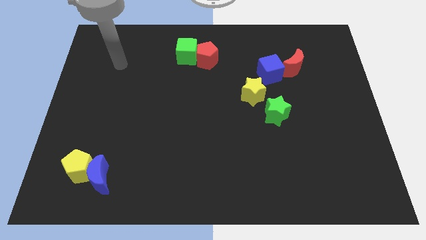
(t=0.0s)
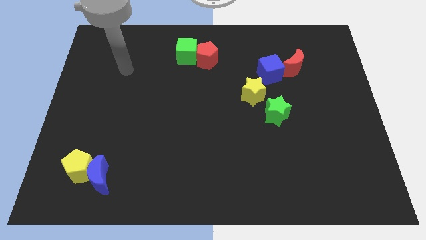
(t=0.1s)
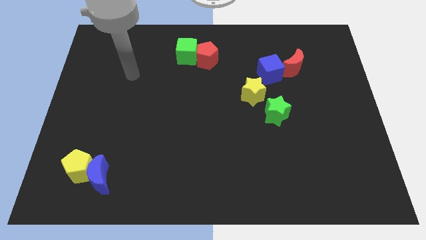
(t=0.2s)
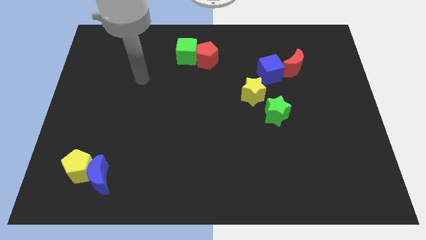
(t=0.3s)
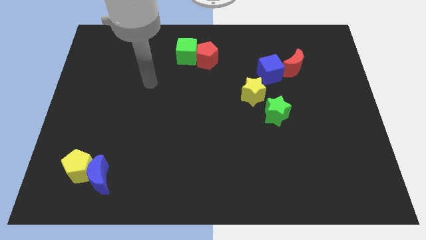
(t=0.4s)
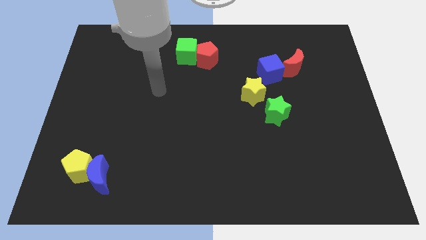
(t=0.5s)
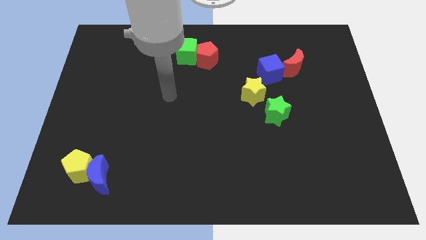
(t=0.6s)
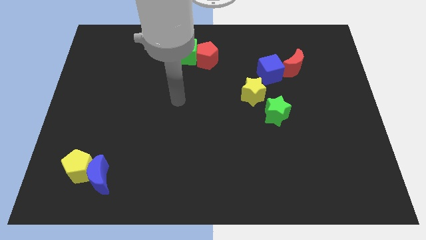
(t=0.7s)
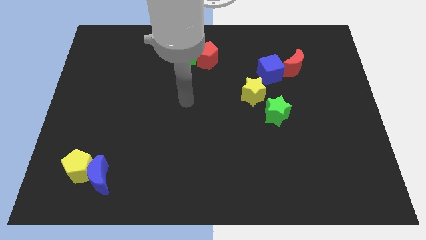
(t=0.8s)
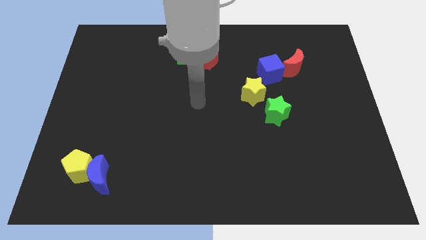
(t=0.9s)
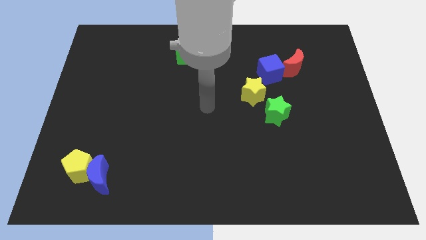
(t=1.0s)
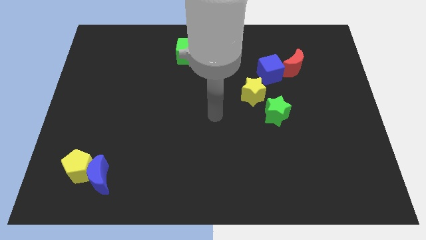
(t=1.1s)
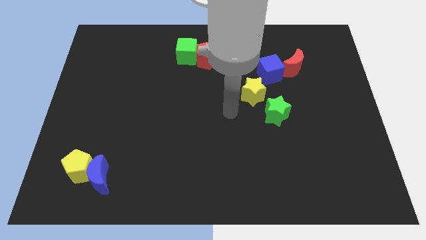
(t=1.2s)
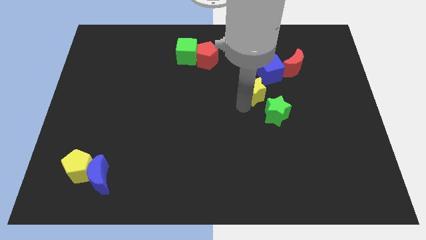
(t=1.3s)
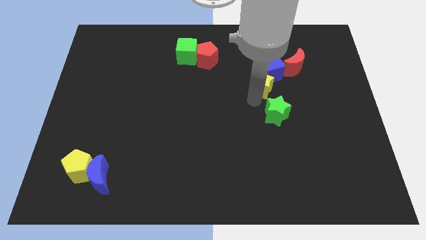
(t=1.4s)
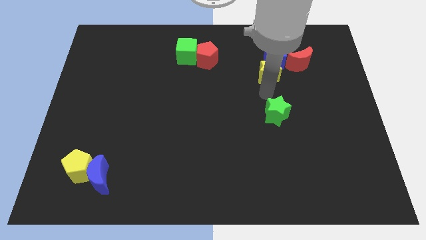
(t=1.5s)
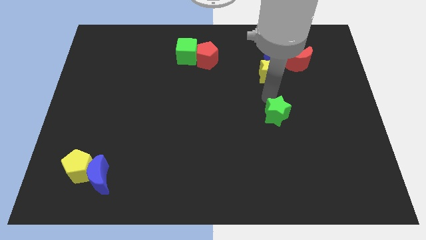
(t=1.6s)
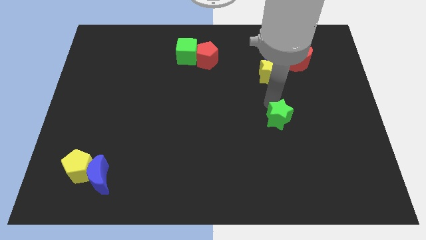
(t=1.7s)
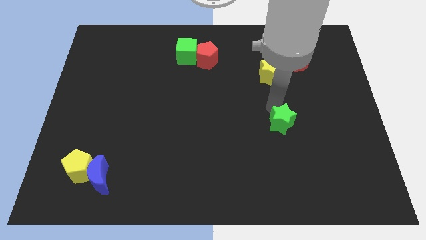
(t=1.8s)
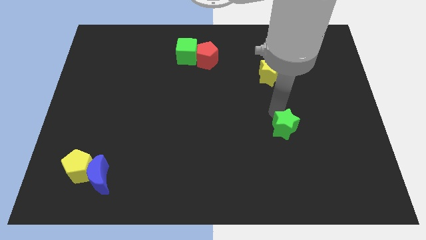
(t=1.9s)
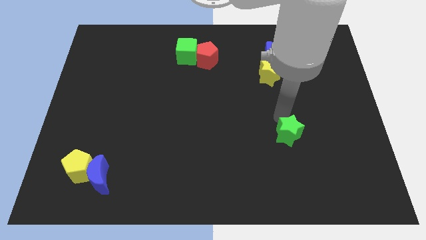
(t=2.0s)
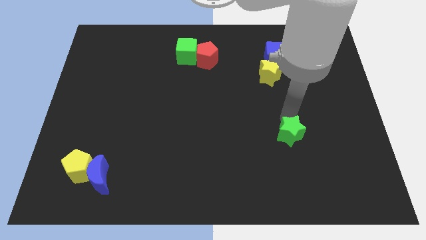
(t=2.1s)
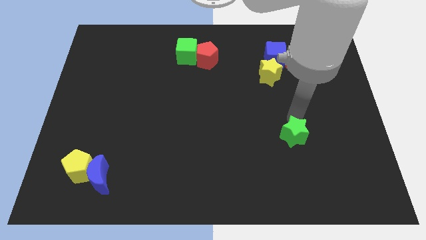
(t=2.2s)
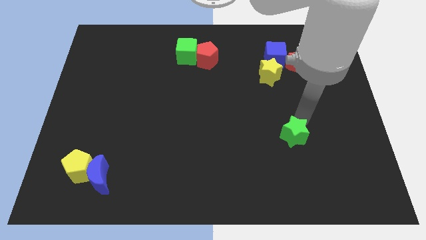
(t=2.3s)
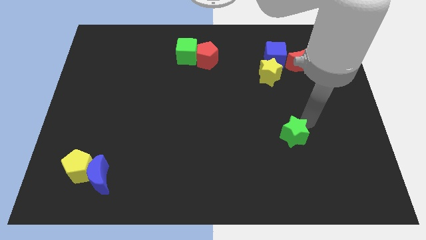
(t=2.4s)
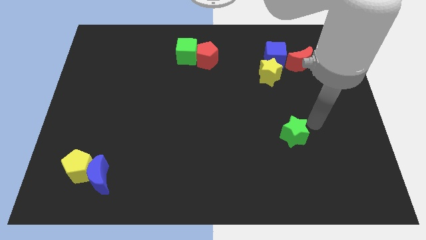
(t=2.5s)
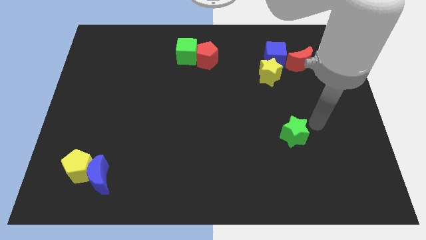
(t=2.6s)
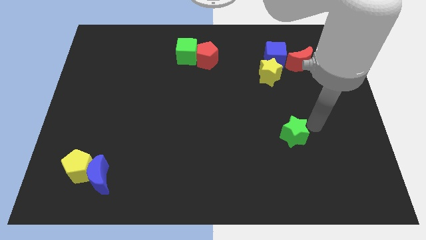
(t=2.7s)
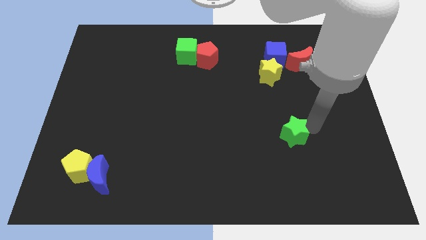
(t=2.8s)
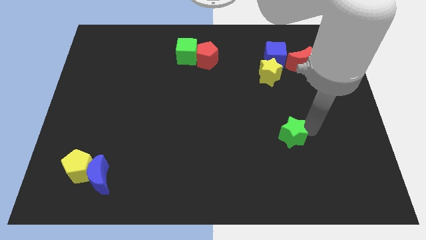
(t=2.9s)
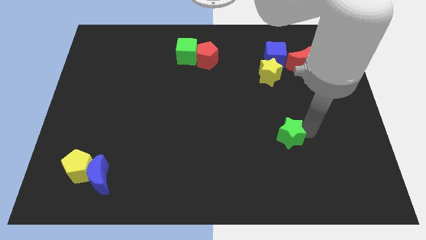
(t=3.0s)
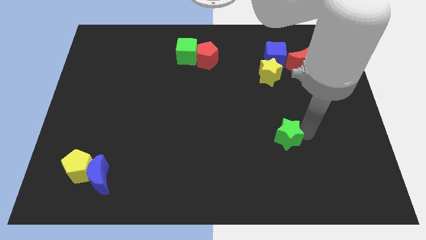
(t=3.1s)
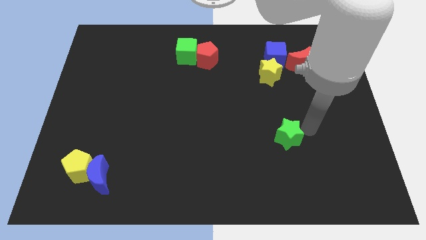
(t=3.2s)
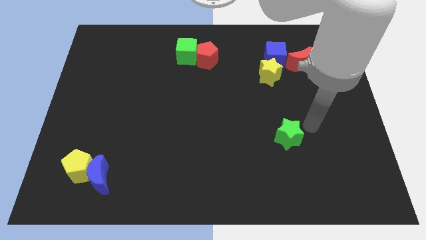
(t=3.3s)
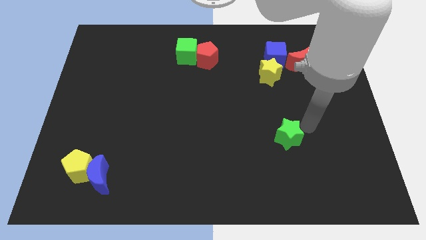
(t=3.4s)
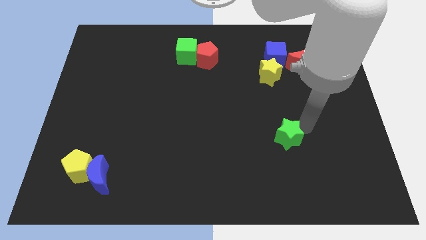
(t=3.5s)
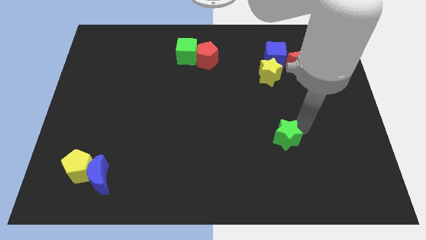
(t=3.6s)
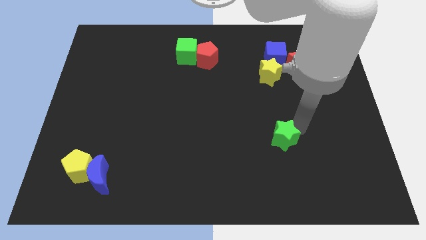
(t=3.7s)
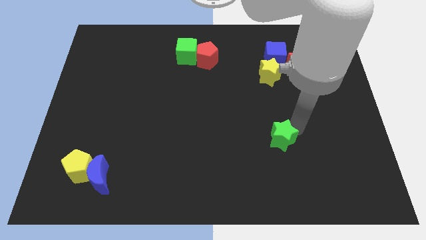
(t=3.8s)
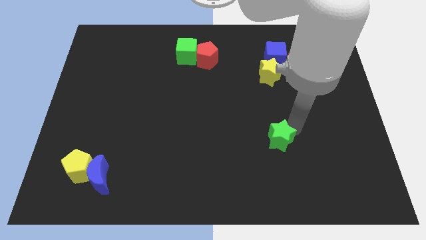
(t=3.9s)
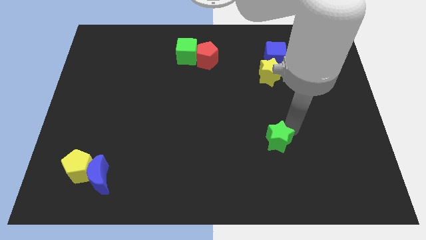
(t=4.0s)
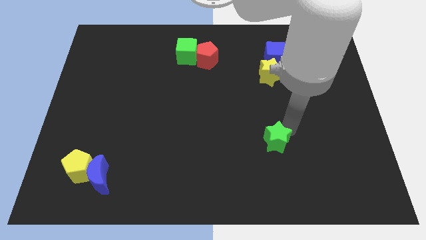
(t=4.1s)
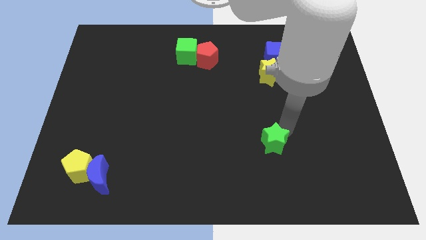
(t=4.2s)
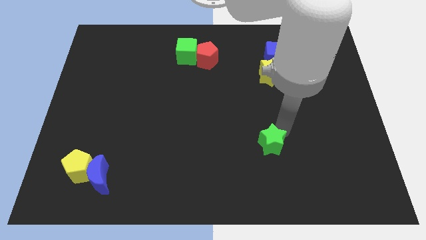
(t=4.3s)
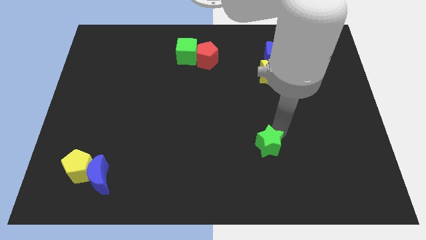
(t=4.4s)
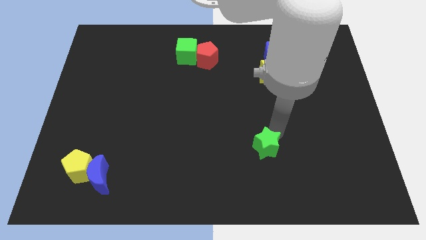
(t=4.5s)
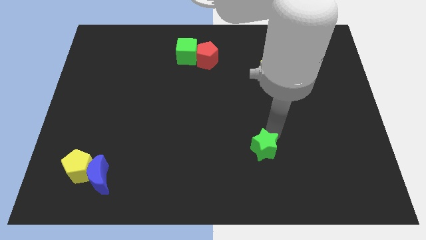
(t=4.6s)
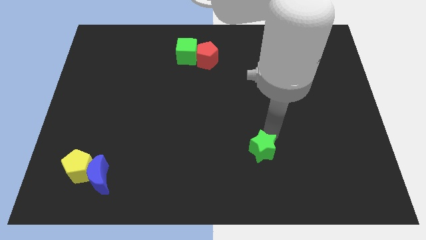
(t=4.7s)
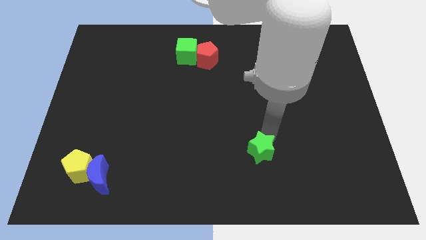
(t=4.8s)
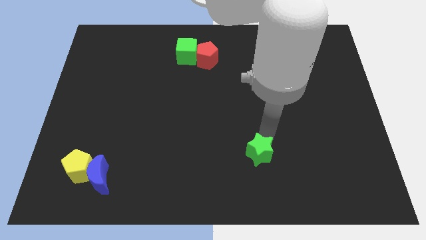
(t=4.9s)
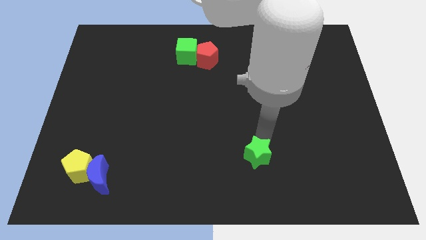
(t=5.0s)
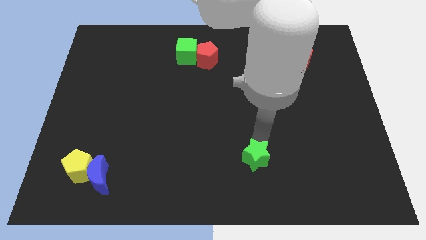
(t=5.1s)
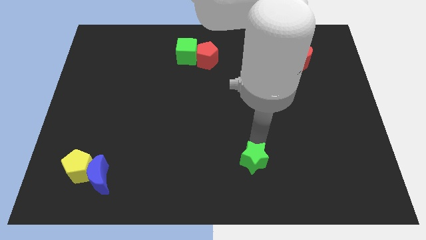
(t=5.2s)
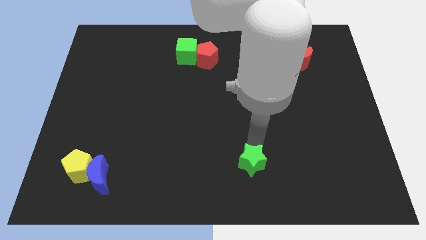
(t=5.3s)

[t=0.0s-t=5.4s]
put the green star to the bottom side
